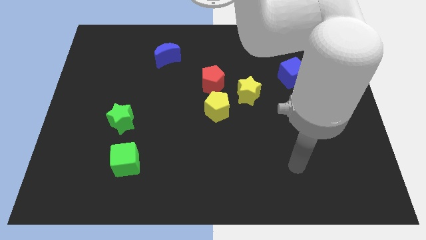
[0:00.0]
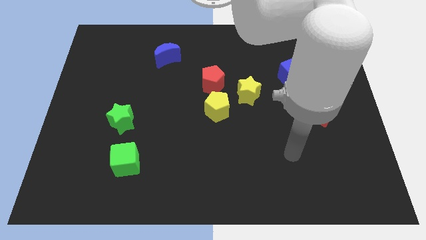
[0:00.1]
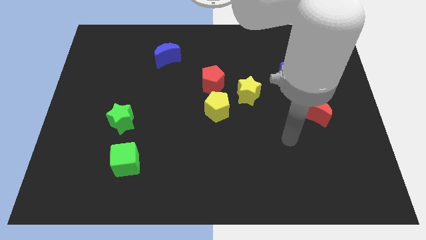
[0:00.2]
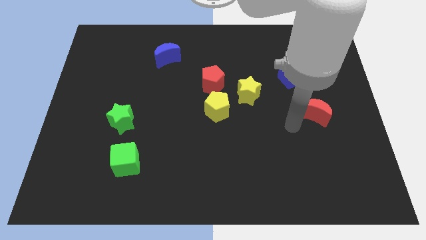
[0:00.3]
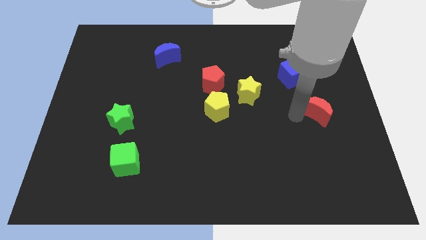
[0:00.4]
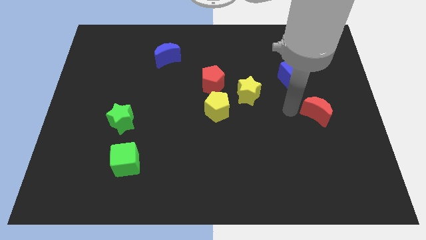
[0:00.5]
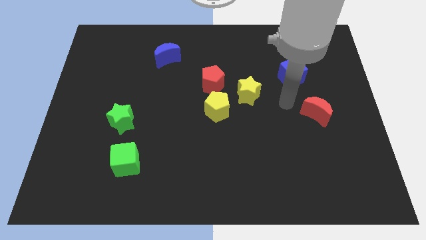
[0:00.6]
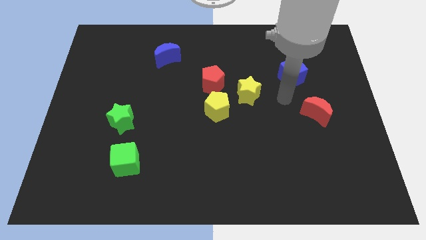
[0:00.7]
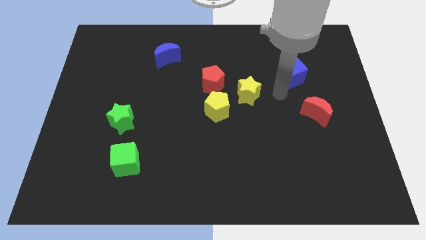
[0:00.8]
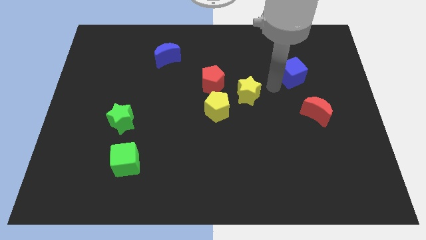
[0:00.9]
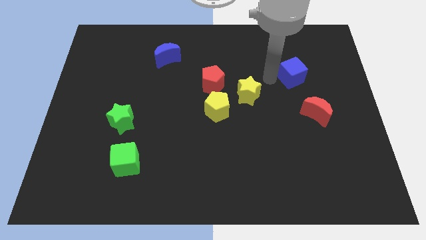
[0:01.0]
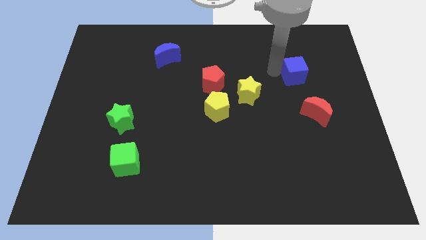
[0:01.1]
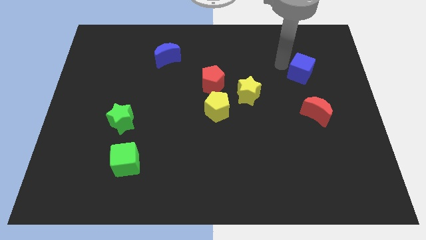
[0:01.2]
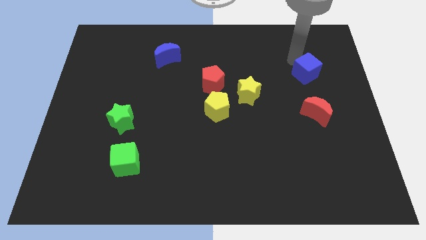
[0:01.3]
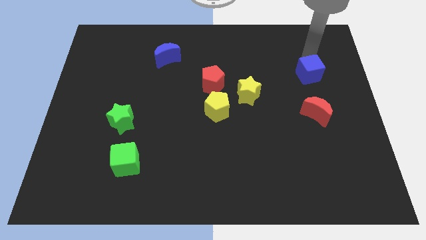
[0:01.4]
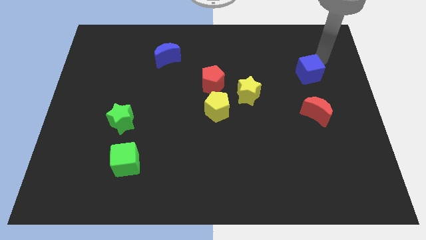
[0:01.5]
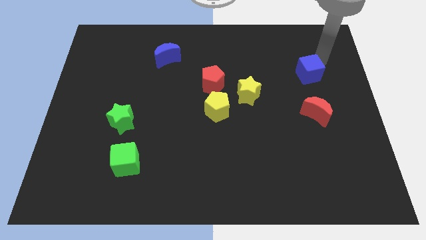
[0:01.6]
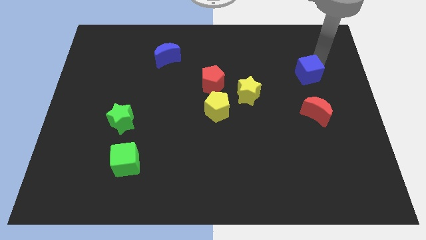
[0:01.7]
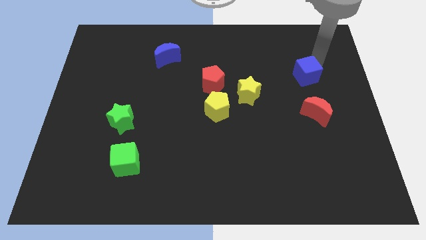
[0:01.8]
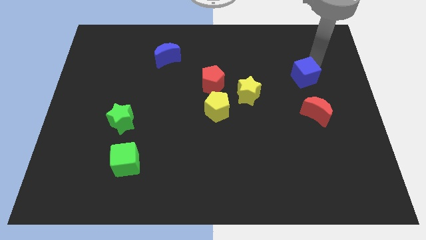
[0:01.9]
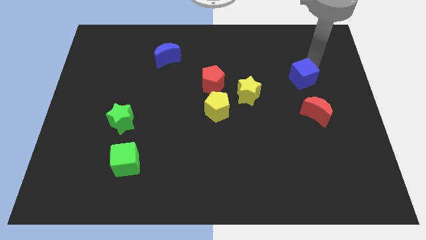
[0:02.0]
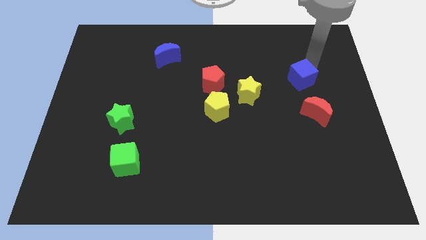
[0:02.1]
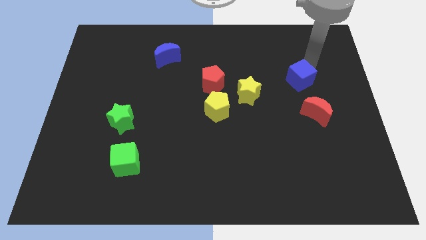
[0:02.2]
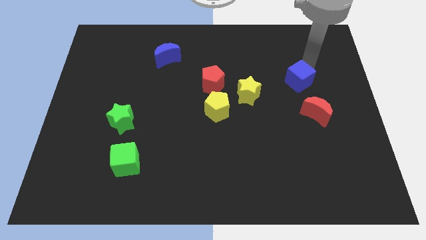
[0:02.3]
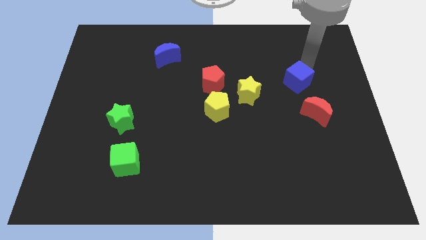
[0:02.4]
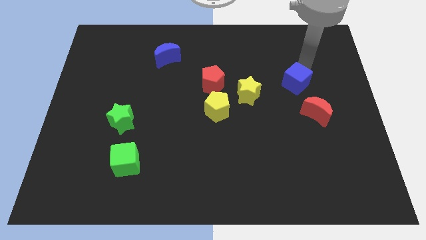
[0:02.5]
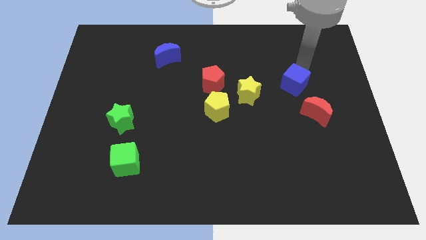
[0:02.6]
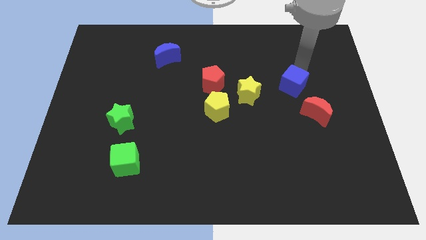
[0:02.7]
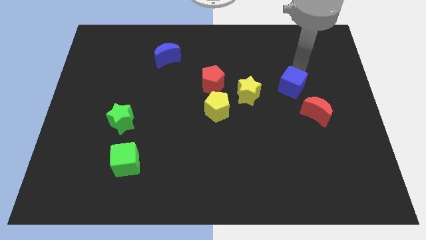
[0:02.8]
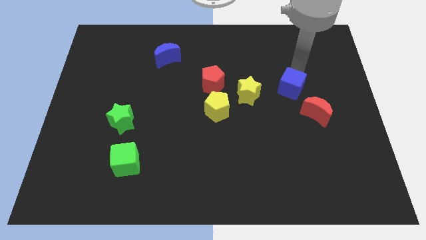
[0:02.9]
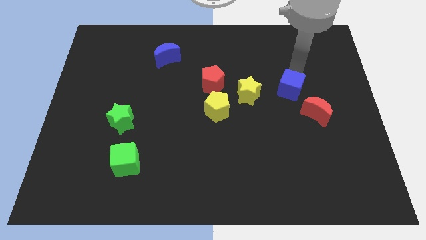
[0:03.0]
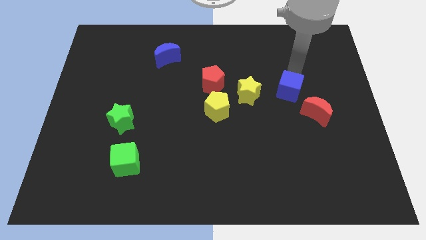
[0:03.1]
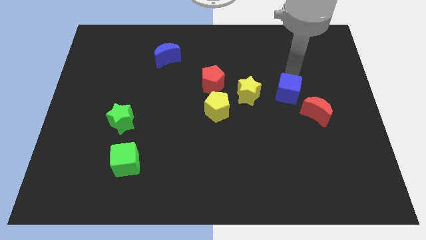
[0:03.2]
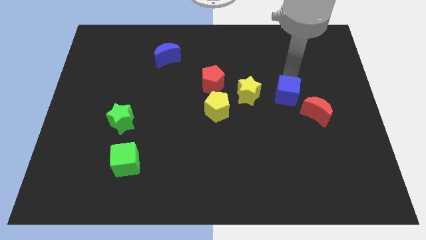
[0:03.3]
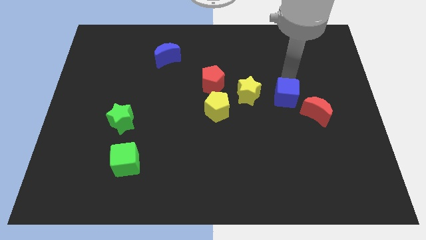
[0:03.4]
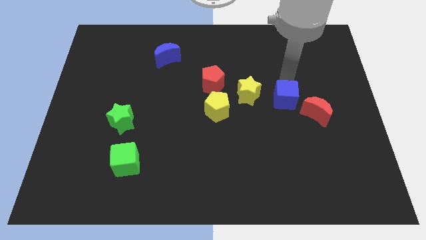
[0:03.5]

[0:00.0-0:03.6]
slightly move the blue cube down

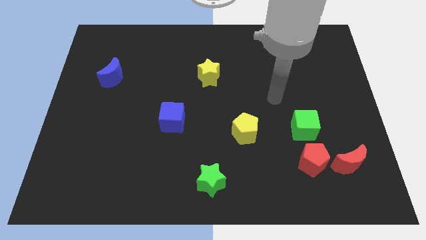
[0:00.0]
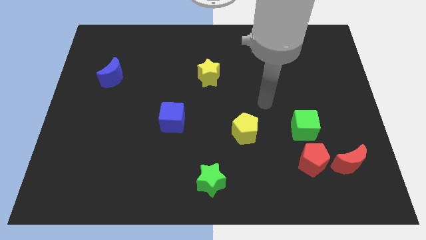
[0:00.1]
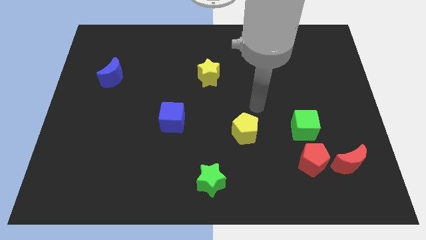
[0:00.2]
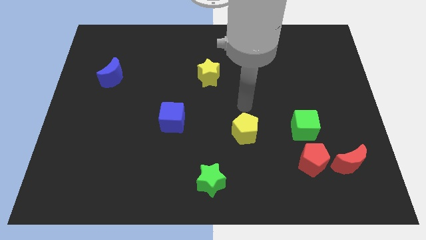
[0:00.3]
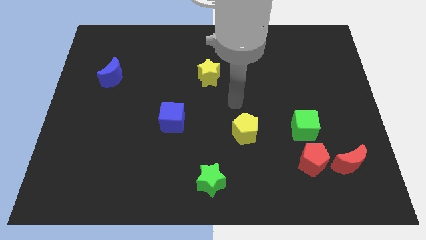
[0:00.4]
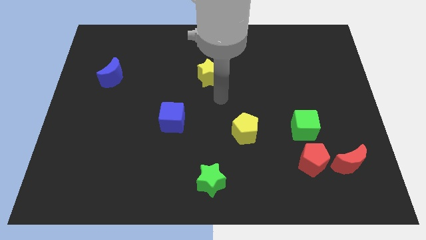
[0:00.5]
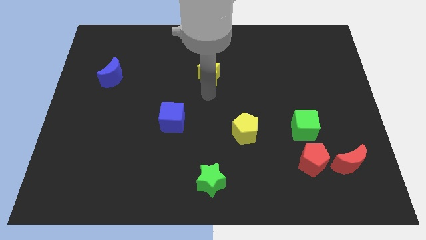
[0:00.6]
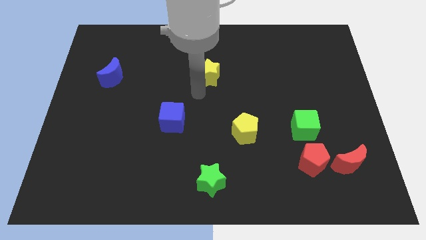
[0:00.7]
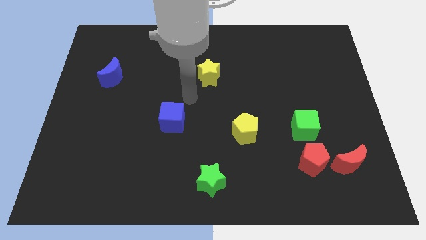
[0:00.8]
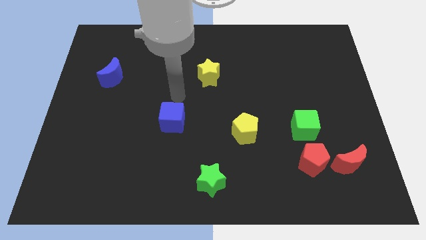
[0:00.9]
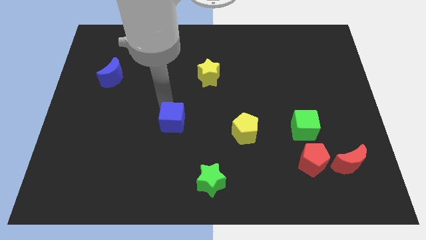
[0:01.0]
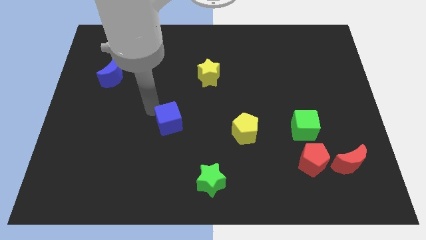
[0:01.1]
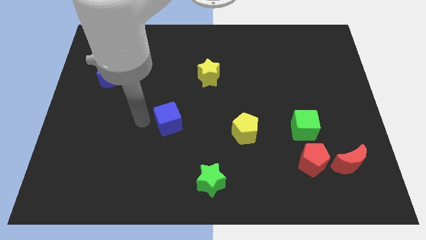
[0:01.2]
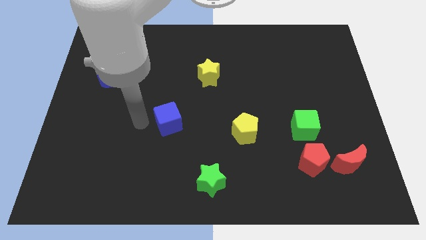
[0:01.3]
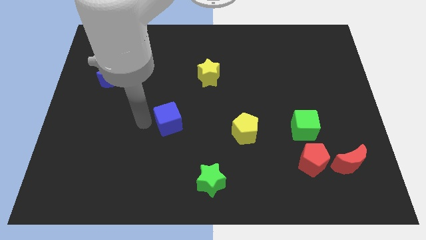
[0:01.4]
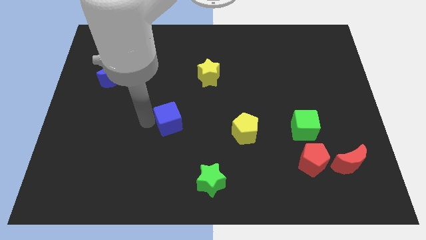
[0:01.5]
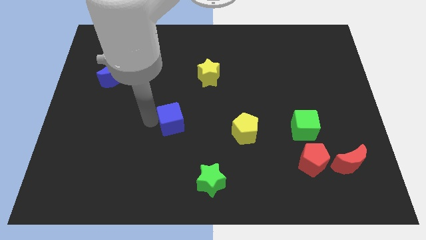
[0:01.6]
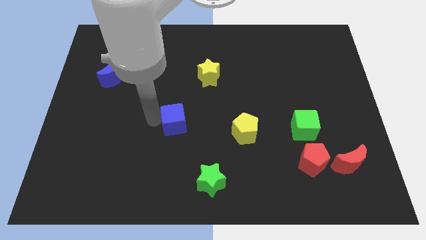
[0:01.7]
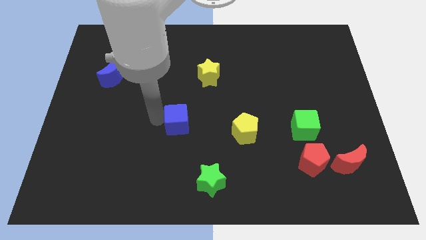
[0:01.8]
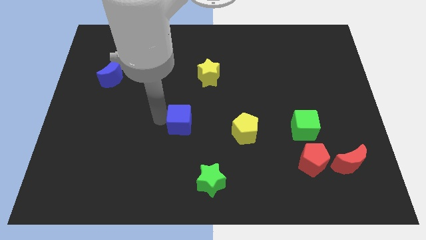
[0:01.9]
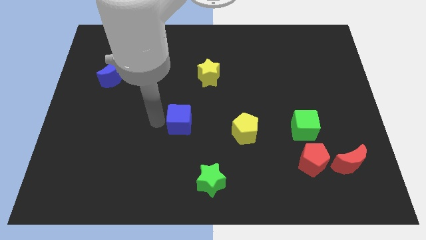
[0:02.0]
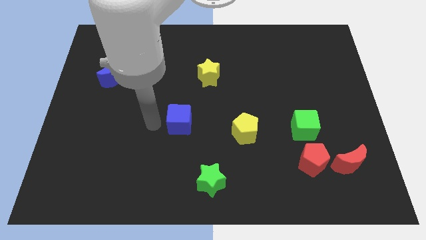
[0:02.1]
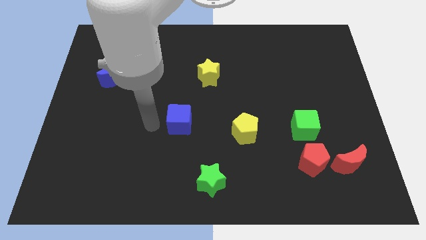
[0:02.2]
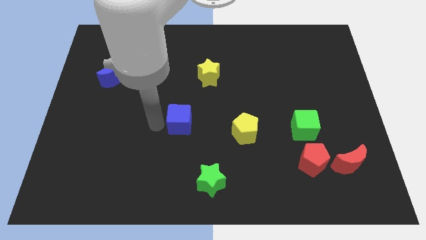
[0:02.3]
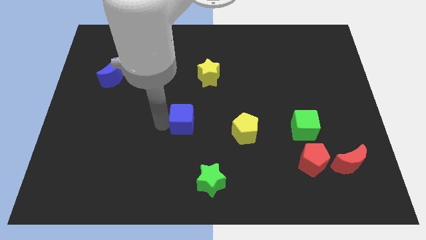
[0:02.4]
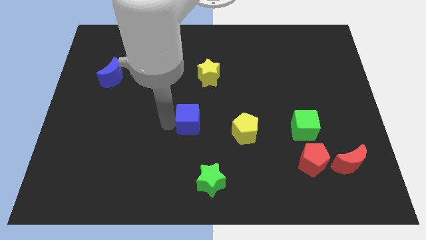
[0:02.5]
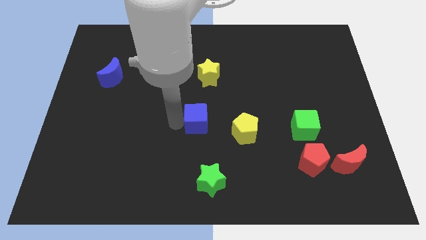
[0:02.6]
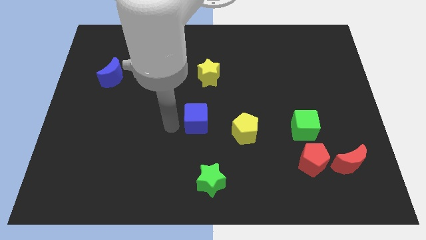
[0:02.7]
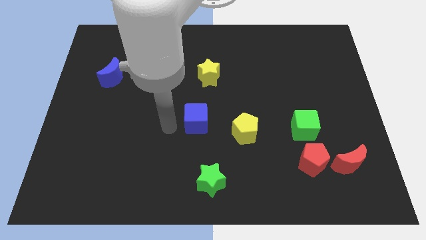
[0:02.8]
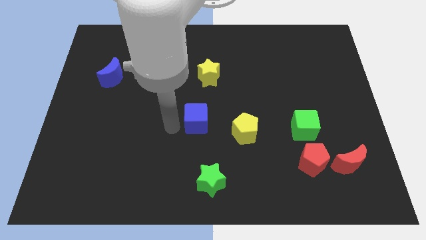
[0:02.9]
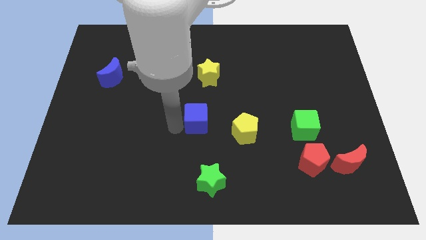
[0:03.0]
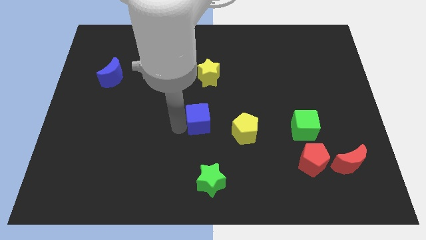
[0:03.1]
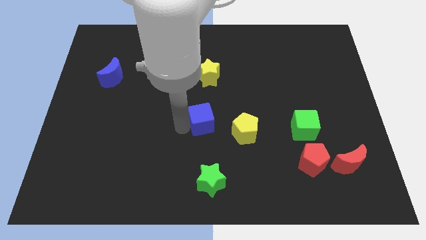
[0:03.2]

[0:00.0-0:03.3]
slightly slide the blue cube to the right

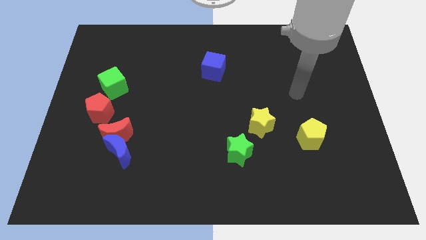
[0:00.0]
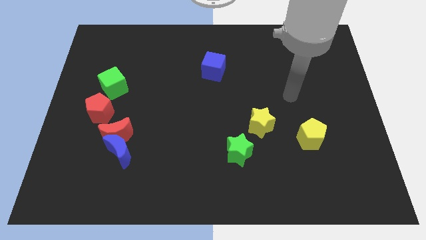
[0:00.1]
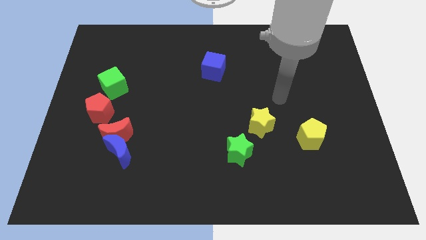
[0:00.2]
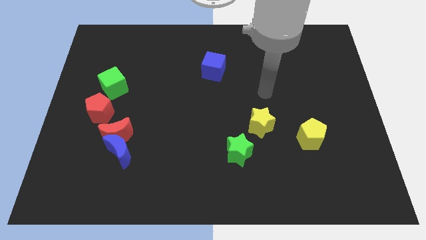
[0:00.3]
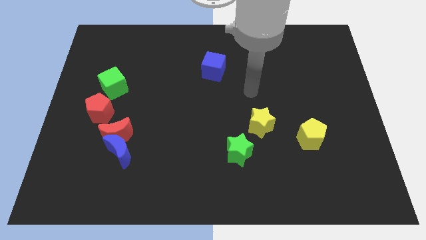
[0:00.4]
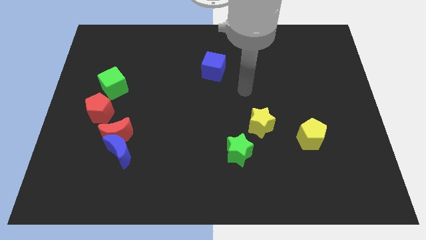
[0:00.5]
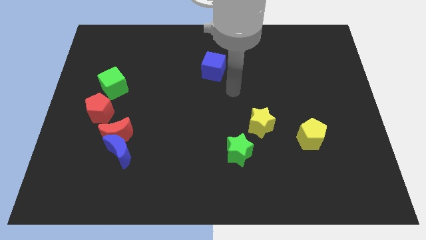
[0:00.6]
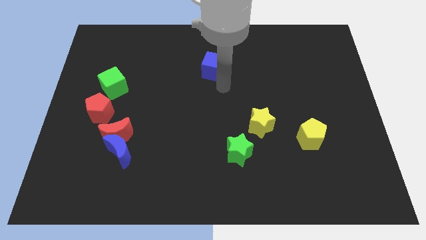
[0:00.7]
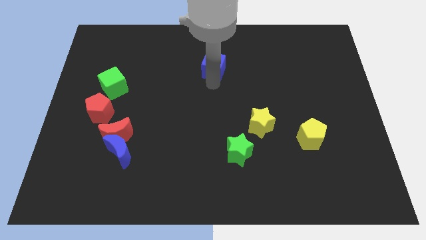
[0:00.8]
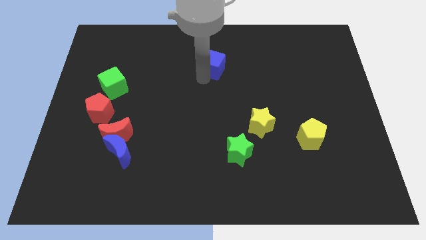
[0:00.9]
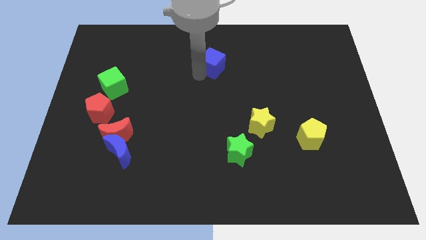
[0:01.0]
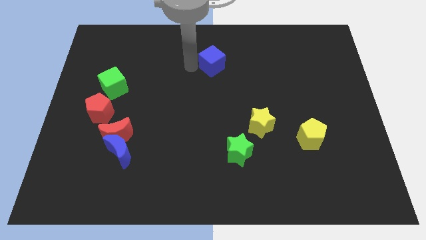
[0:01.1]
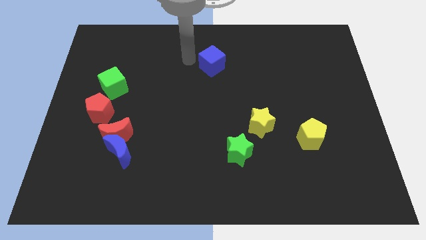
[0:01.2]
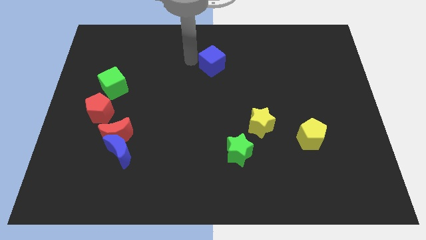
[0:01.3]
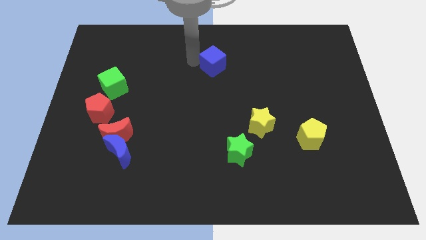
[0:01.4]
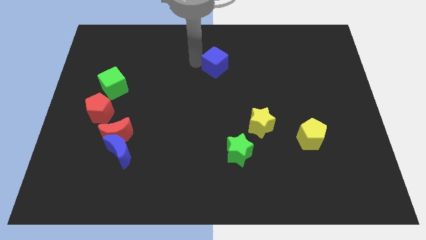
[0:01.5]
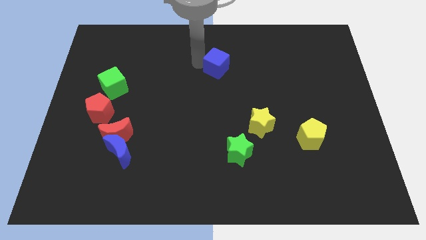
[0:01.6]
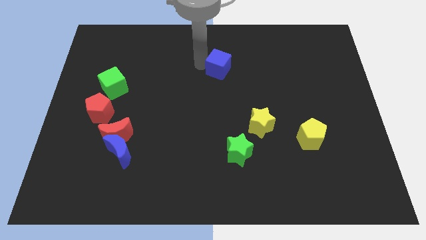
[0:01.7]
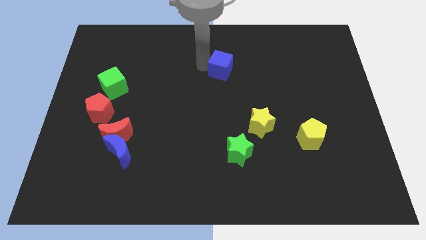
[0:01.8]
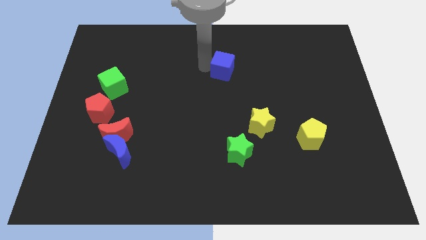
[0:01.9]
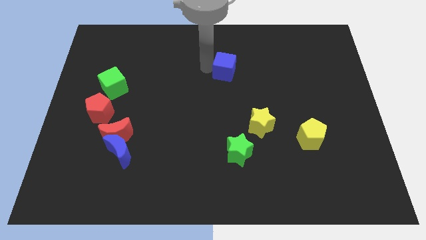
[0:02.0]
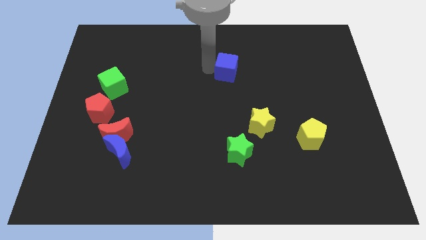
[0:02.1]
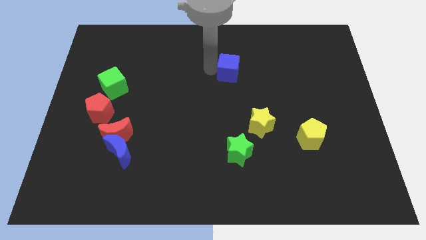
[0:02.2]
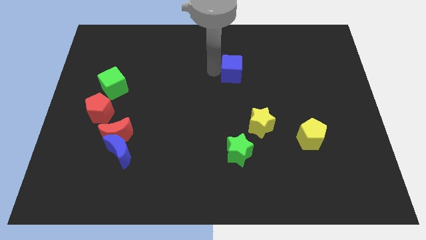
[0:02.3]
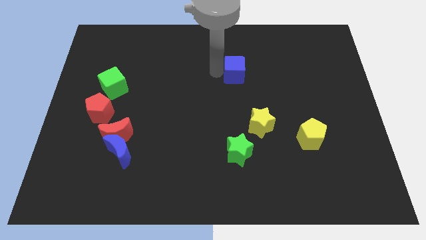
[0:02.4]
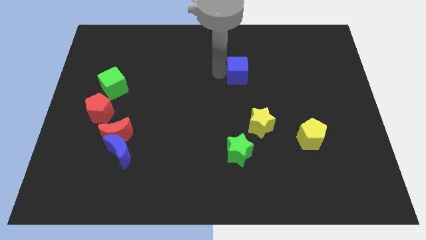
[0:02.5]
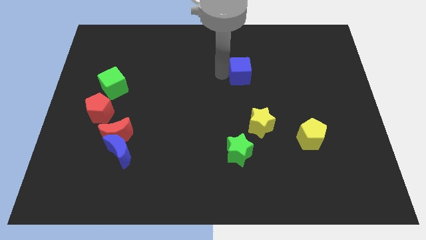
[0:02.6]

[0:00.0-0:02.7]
slide the blue cube somewhat to the right
